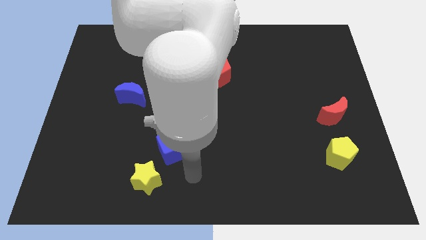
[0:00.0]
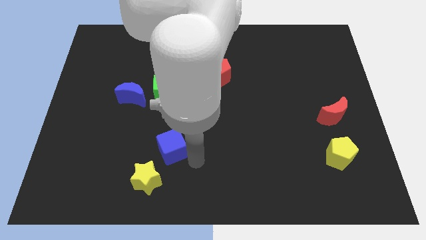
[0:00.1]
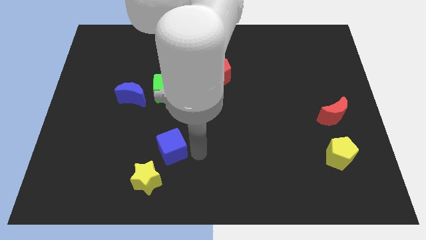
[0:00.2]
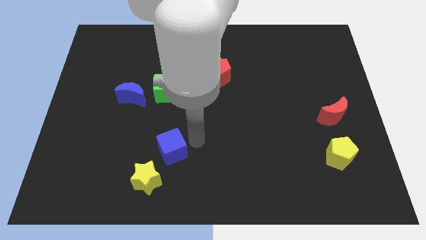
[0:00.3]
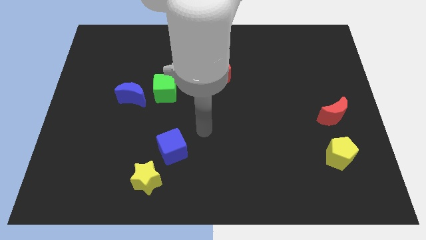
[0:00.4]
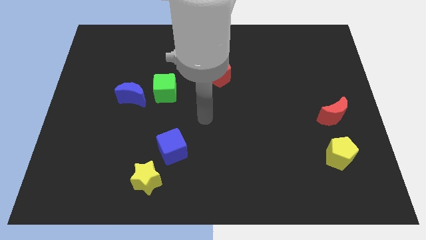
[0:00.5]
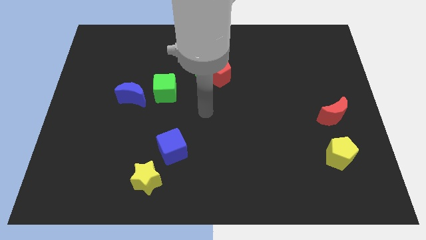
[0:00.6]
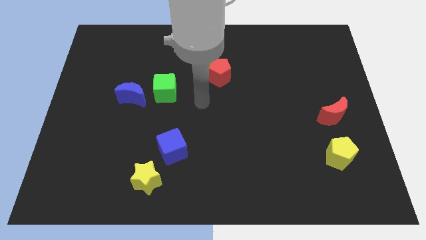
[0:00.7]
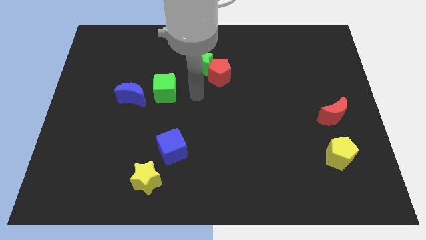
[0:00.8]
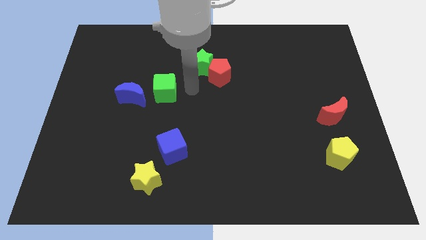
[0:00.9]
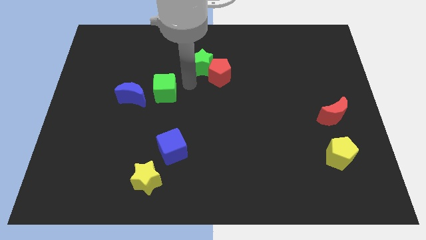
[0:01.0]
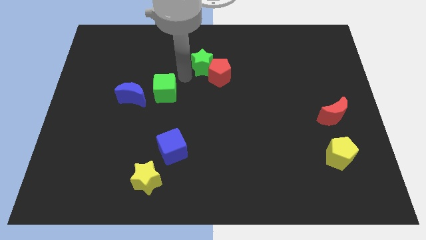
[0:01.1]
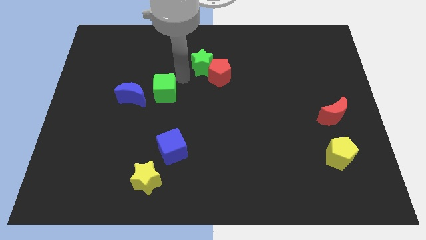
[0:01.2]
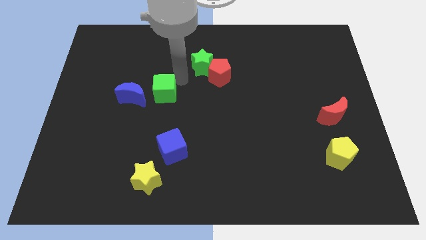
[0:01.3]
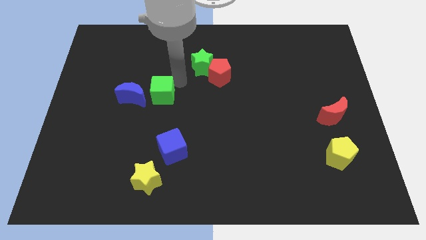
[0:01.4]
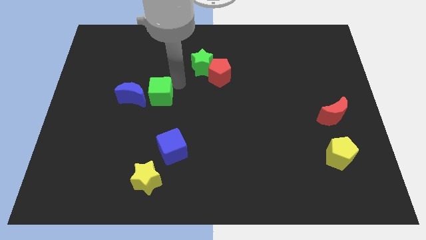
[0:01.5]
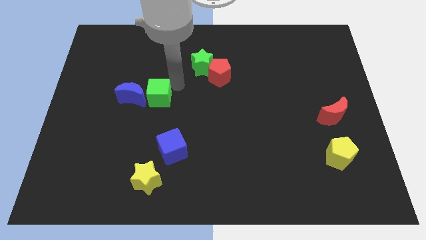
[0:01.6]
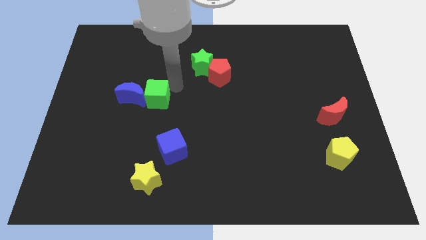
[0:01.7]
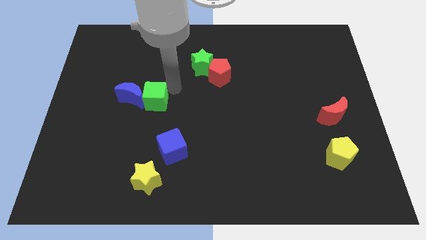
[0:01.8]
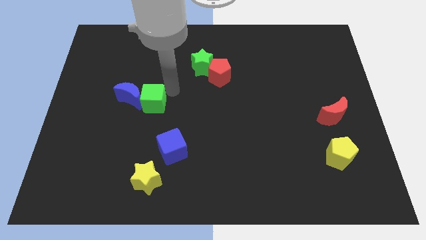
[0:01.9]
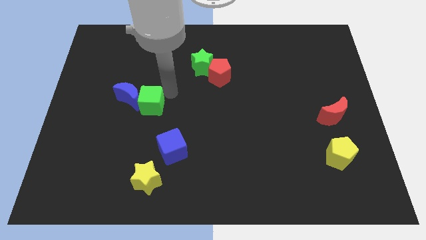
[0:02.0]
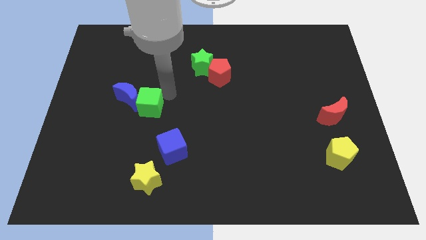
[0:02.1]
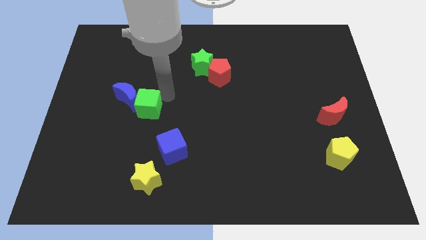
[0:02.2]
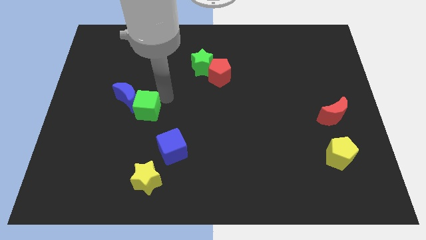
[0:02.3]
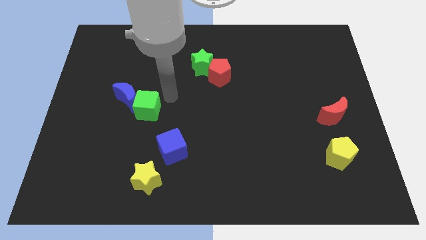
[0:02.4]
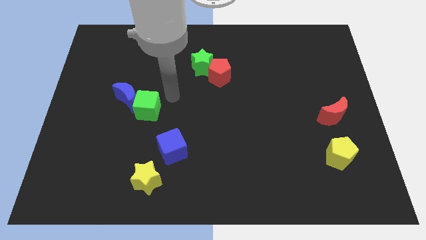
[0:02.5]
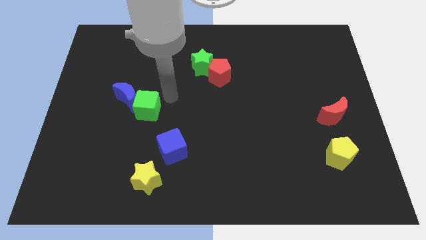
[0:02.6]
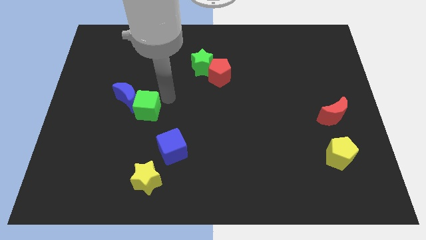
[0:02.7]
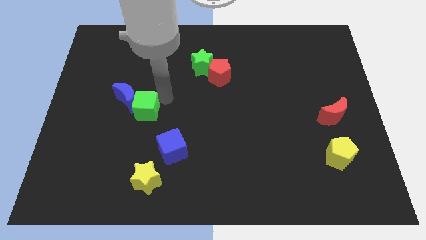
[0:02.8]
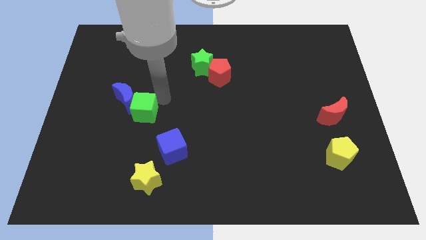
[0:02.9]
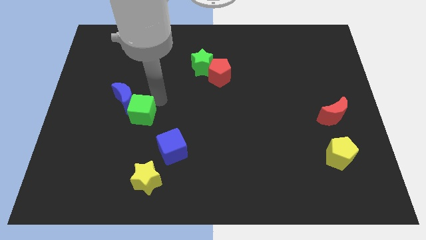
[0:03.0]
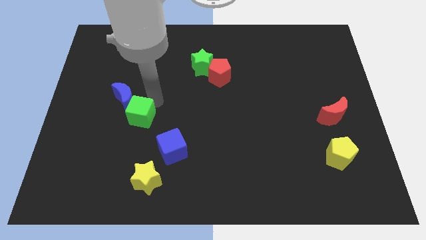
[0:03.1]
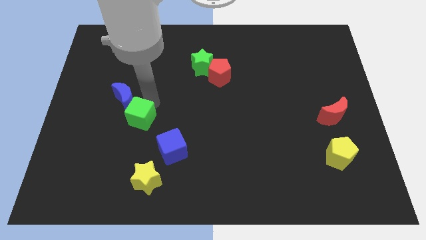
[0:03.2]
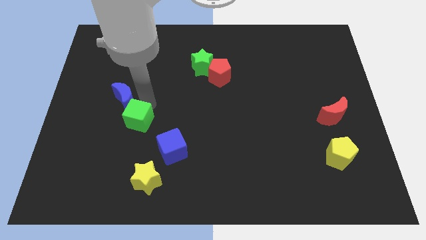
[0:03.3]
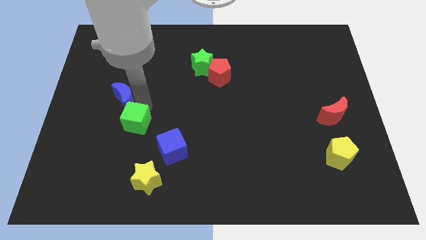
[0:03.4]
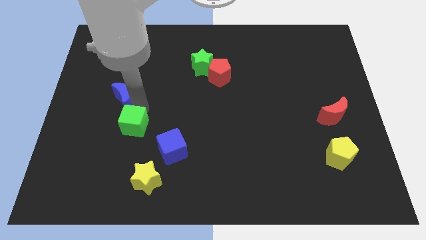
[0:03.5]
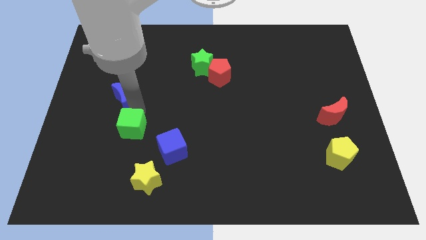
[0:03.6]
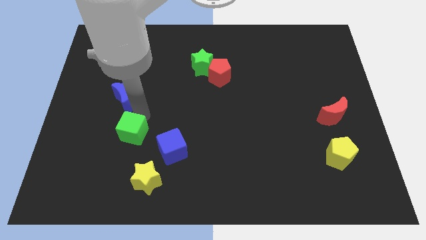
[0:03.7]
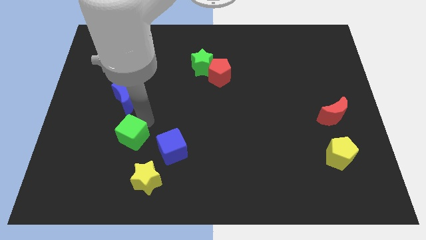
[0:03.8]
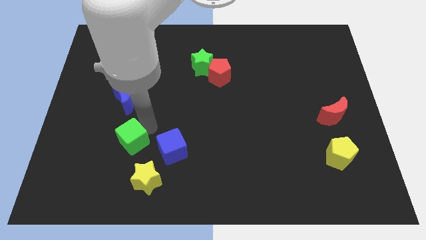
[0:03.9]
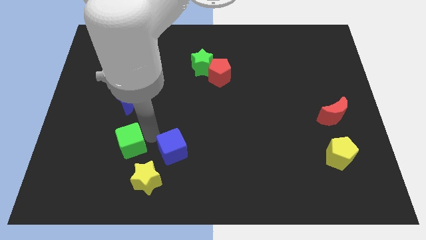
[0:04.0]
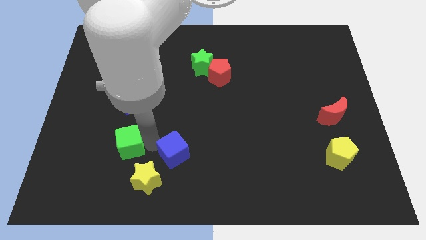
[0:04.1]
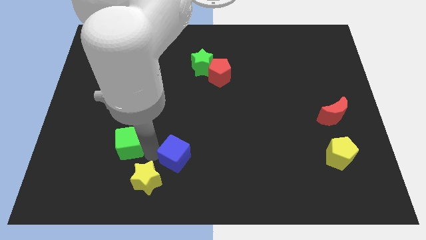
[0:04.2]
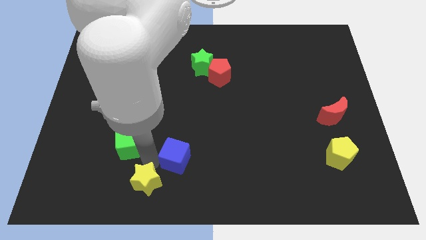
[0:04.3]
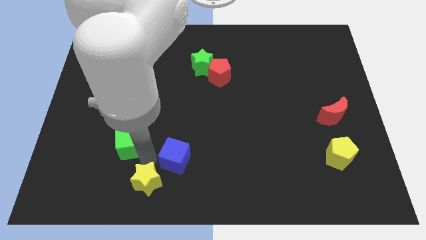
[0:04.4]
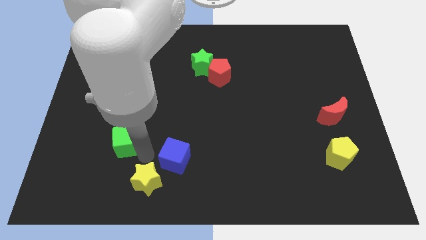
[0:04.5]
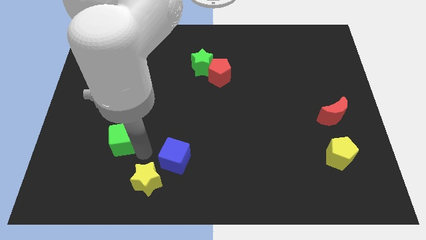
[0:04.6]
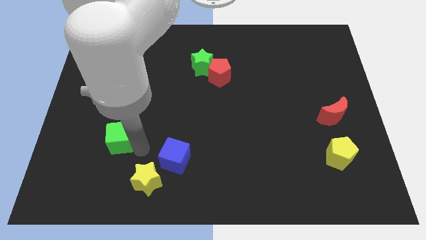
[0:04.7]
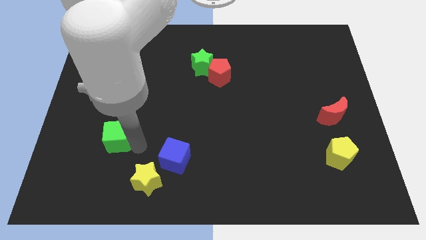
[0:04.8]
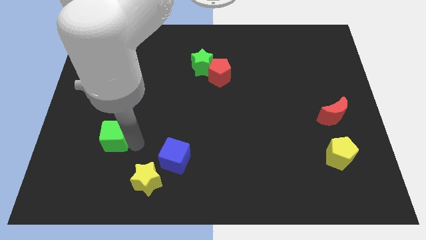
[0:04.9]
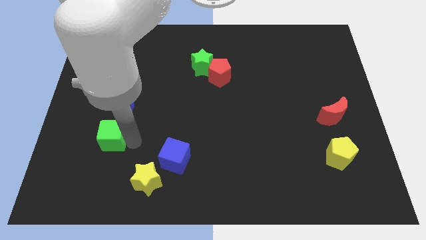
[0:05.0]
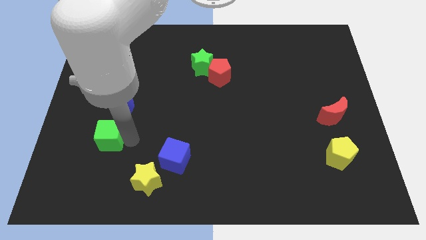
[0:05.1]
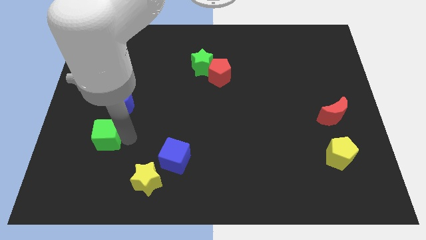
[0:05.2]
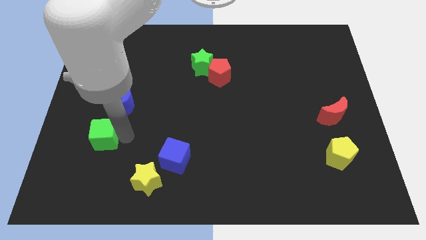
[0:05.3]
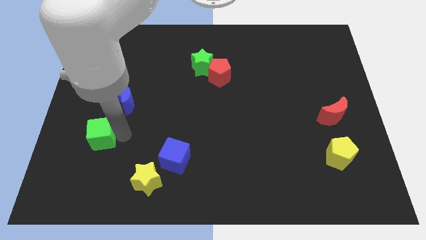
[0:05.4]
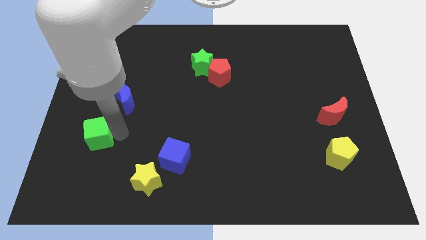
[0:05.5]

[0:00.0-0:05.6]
put the green cube to the bottom left of the blue moon

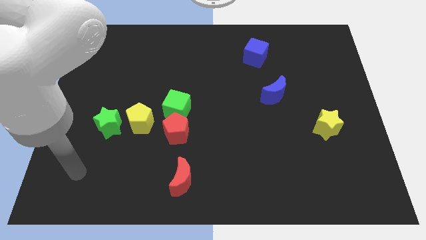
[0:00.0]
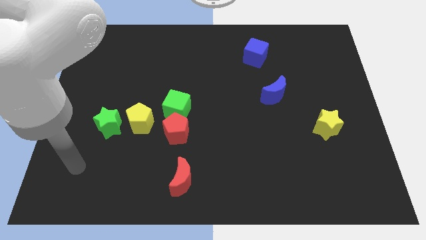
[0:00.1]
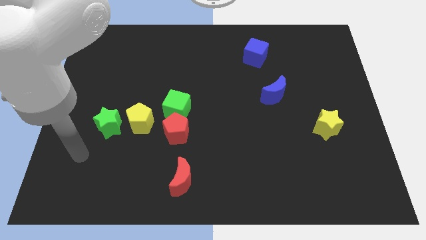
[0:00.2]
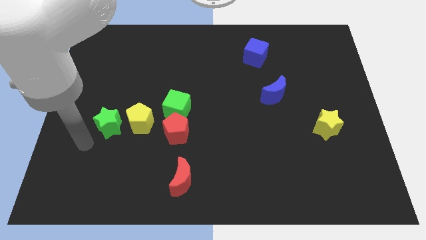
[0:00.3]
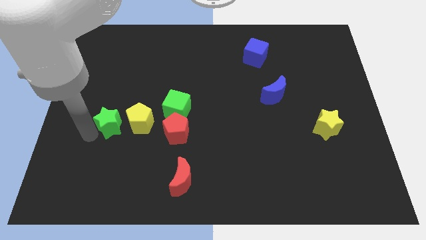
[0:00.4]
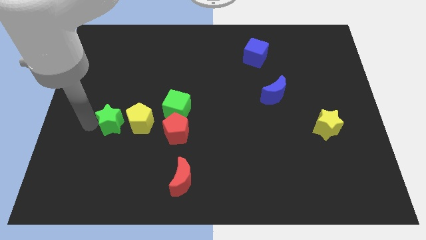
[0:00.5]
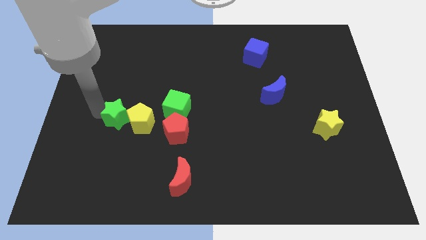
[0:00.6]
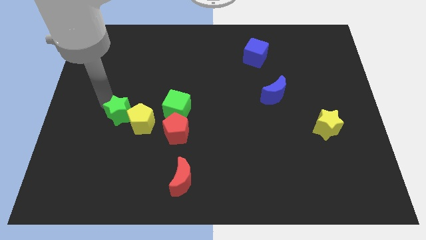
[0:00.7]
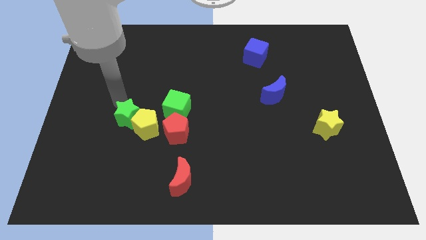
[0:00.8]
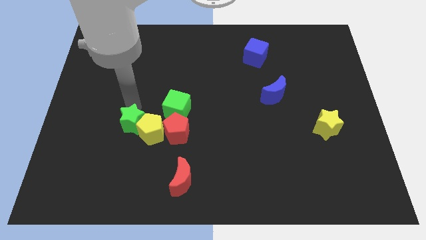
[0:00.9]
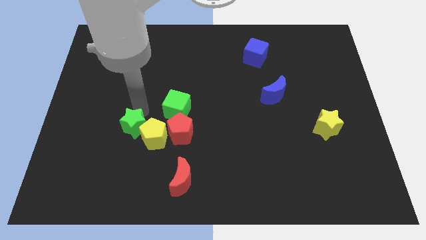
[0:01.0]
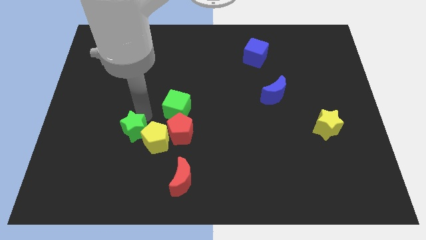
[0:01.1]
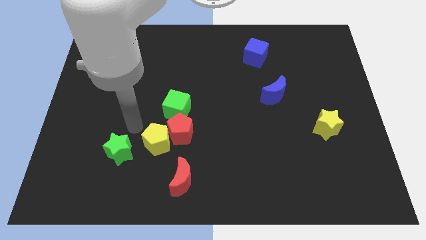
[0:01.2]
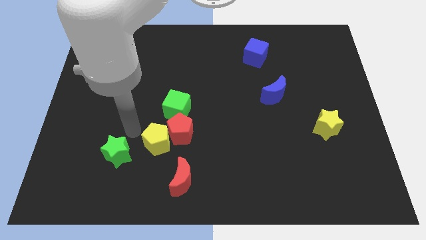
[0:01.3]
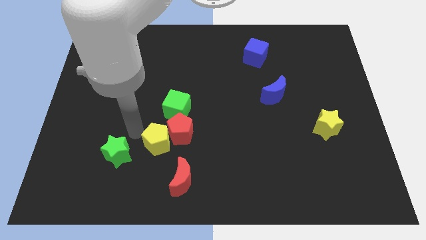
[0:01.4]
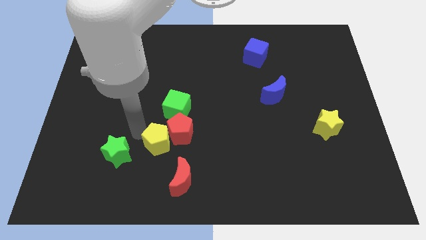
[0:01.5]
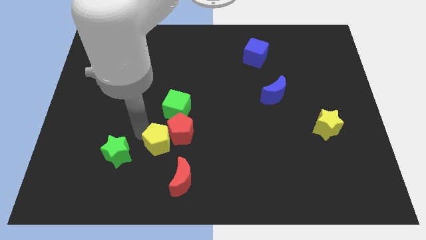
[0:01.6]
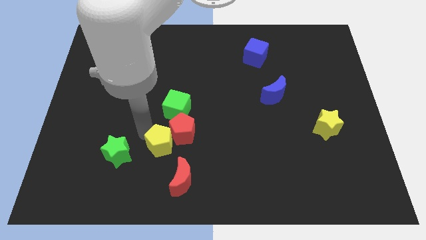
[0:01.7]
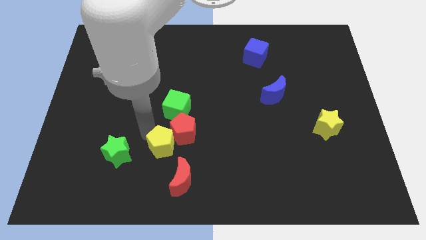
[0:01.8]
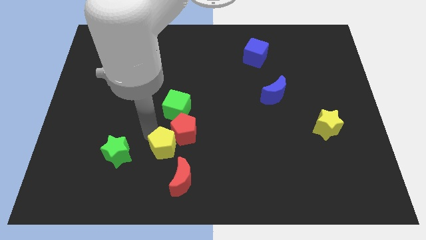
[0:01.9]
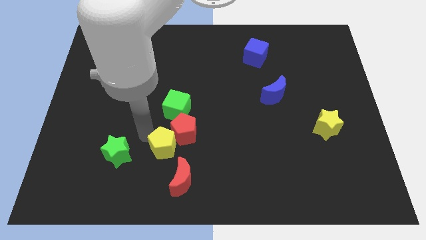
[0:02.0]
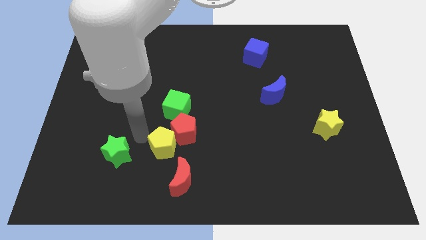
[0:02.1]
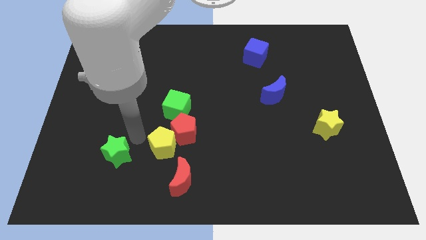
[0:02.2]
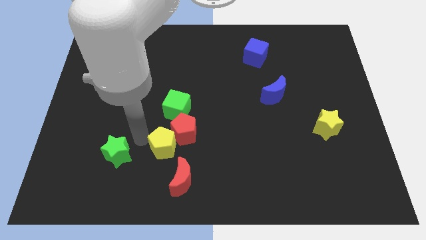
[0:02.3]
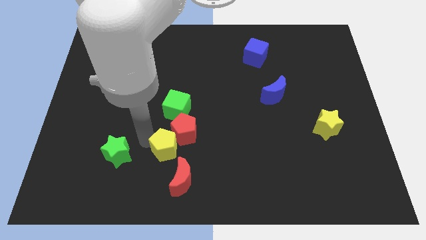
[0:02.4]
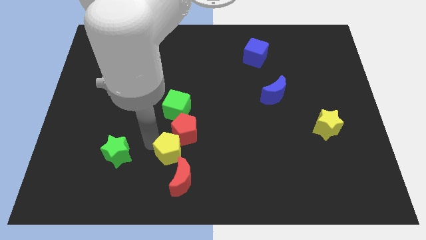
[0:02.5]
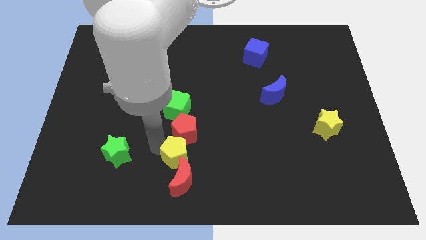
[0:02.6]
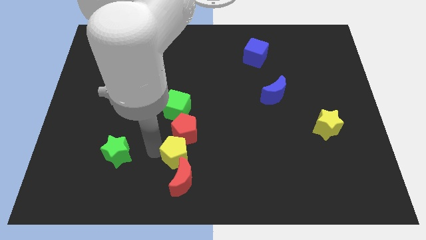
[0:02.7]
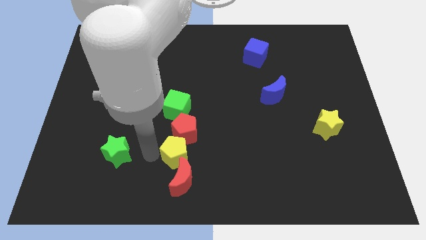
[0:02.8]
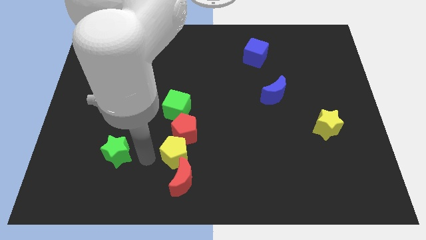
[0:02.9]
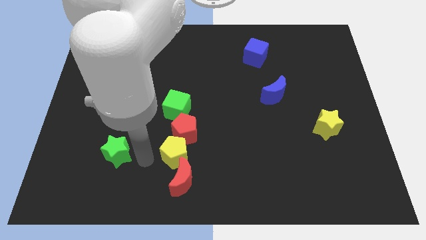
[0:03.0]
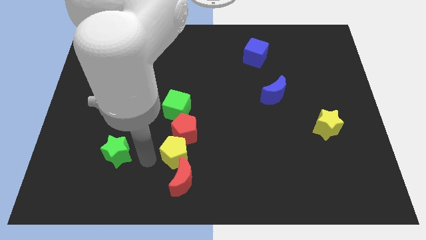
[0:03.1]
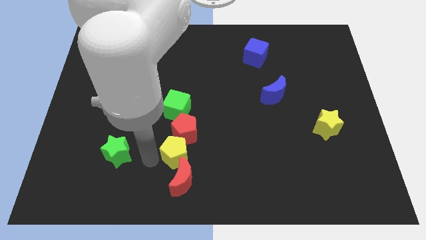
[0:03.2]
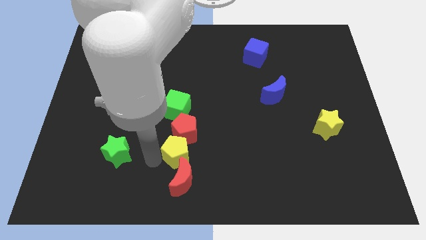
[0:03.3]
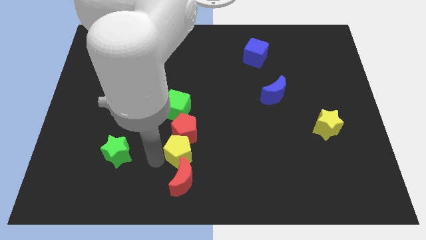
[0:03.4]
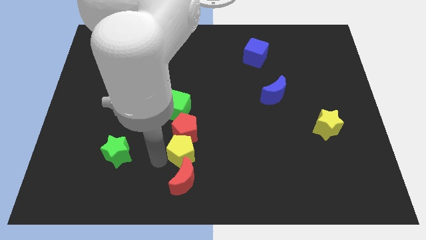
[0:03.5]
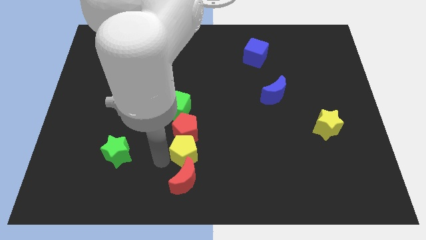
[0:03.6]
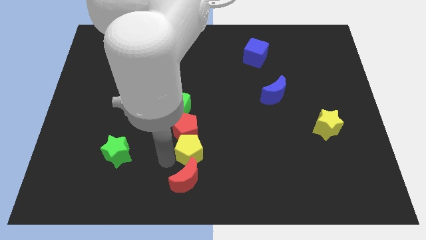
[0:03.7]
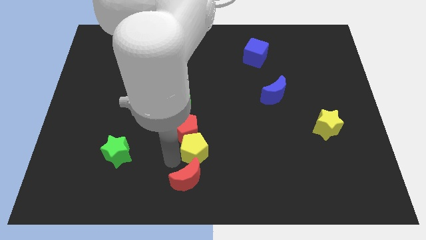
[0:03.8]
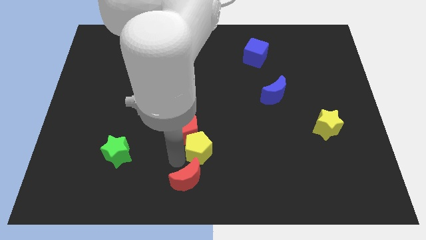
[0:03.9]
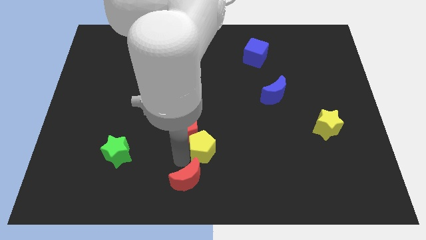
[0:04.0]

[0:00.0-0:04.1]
slide the yellow pentagon right of the red pentagon
